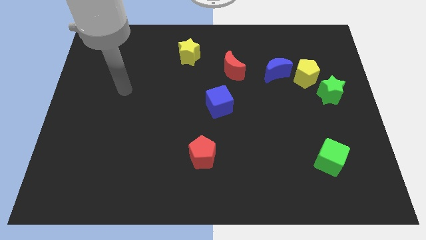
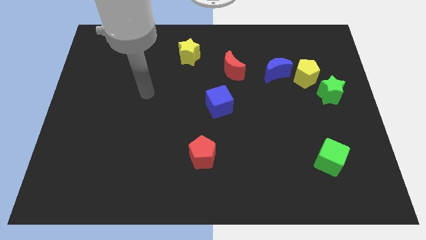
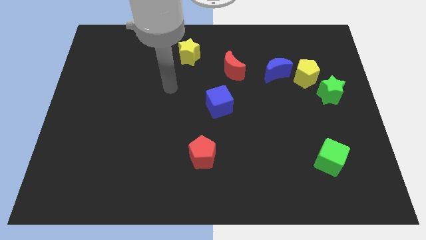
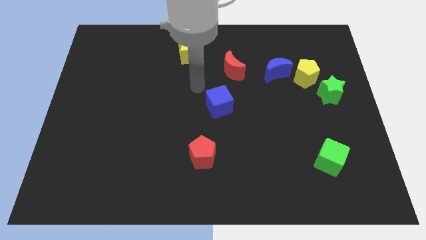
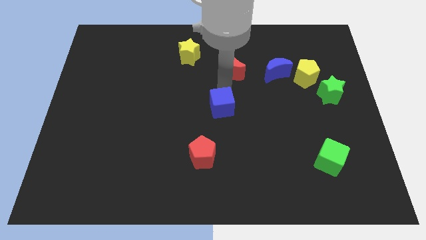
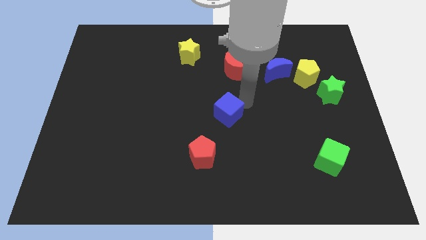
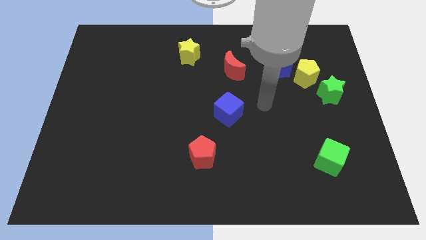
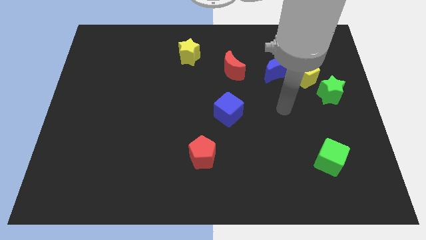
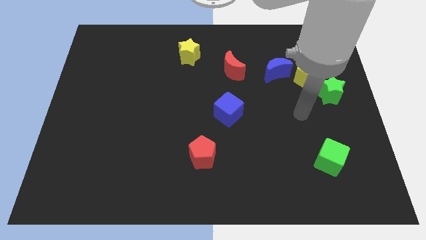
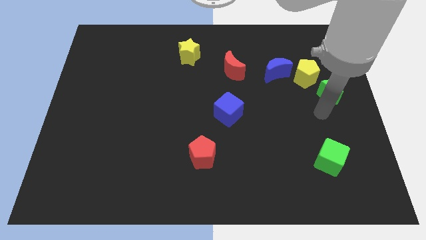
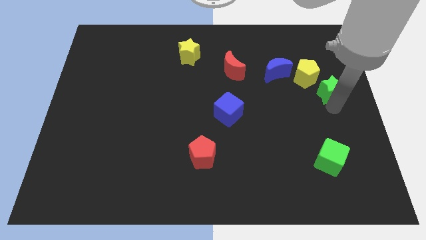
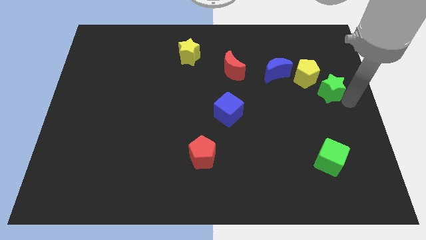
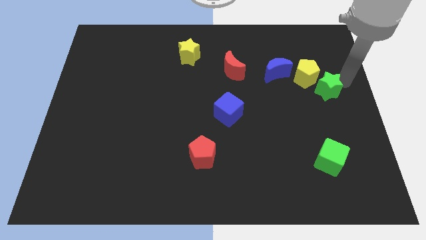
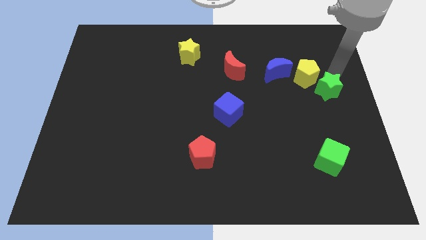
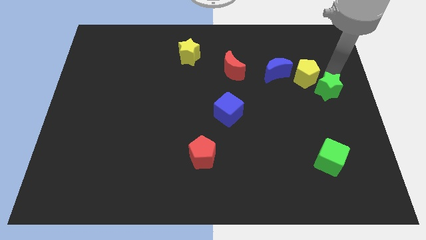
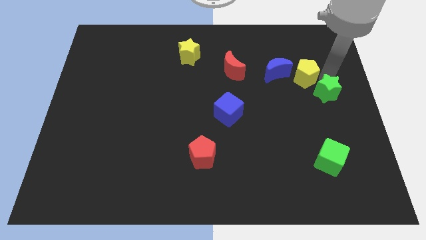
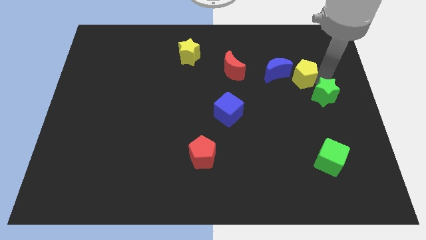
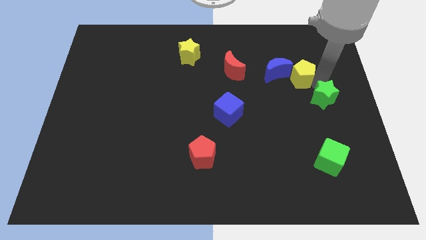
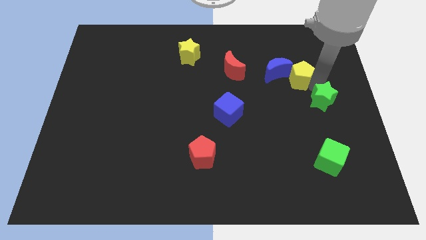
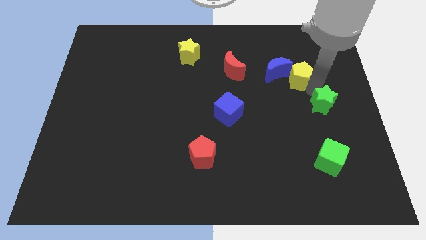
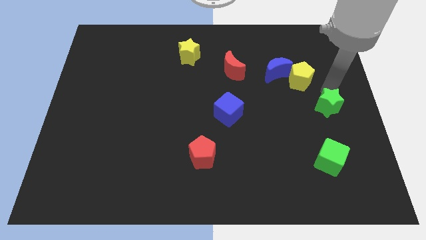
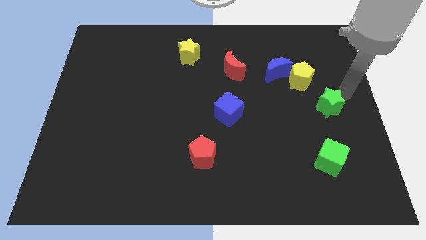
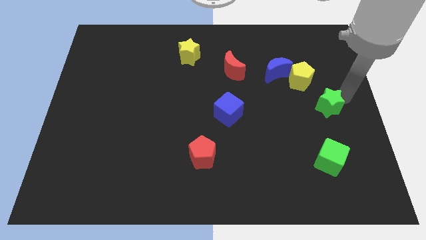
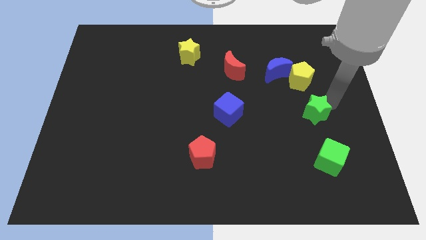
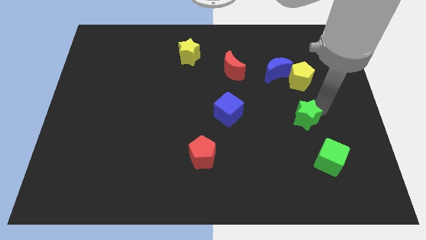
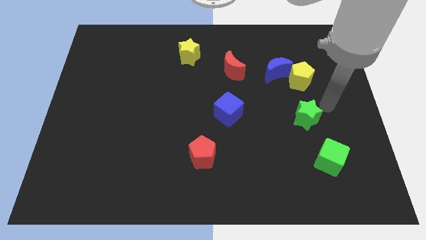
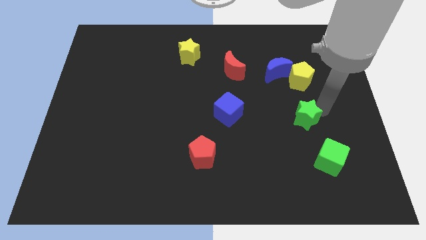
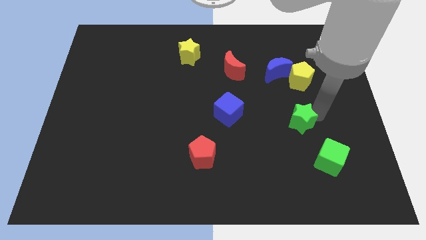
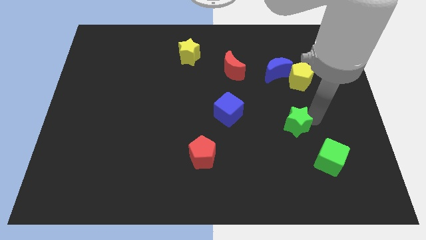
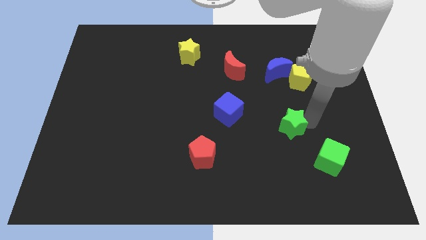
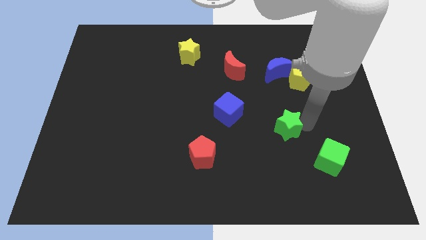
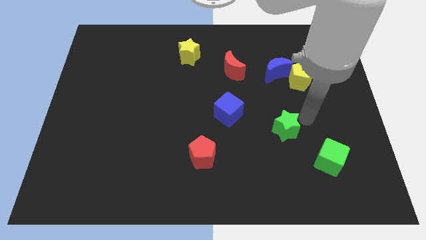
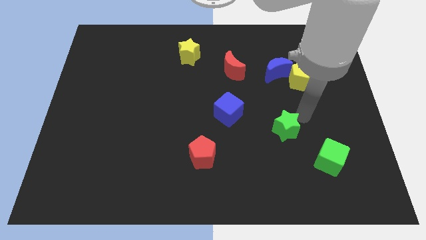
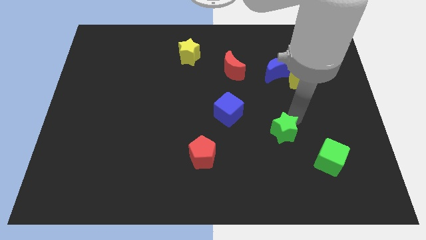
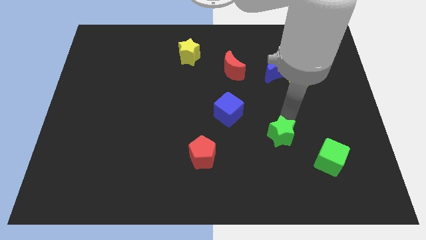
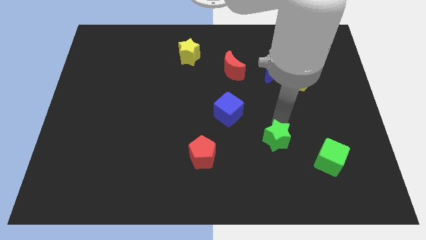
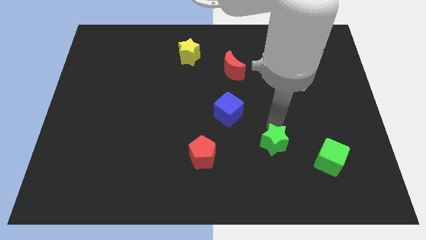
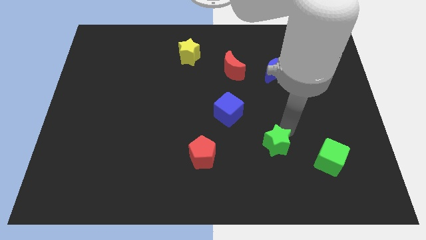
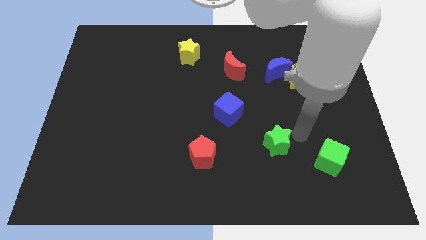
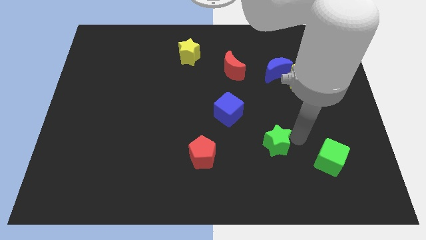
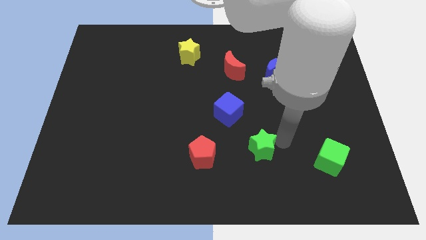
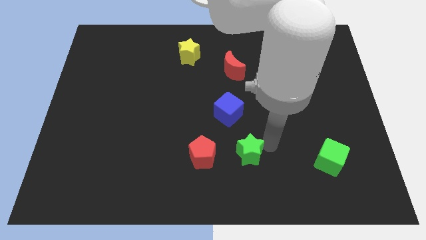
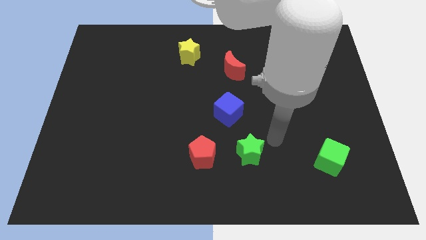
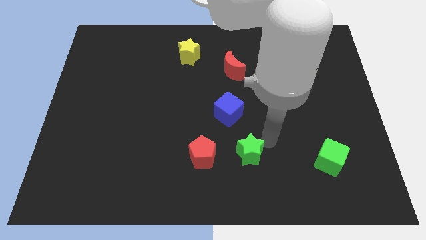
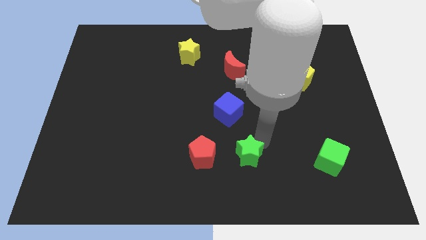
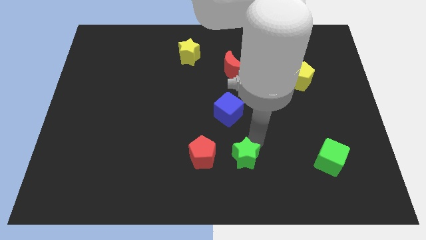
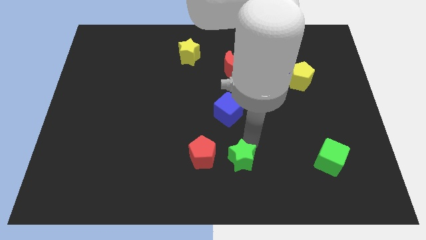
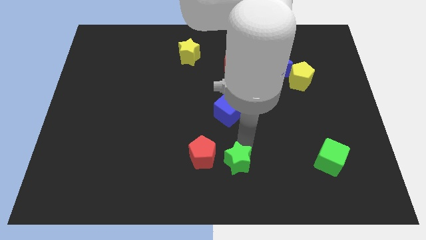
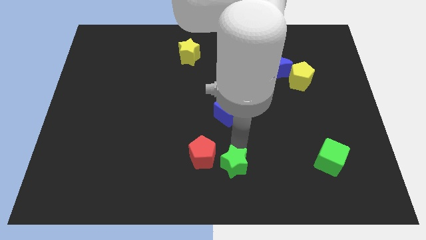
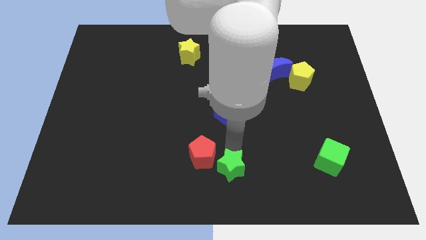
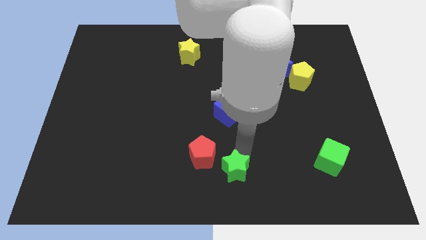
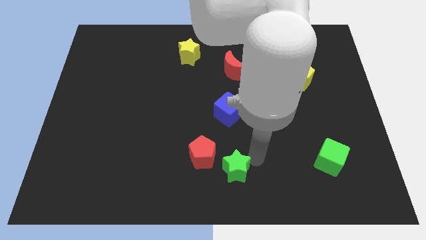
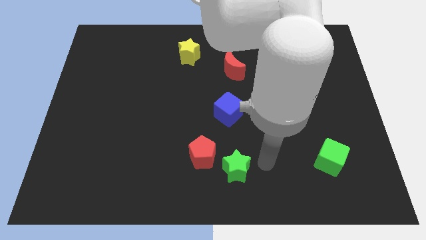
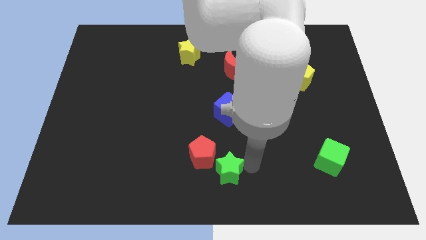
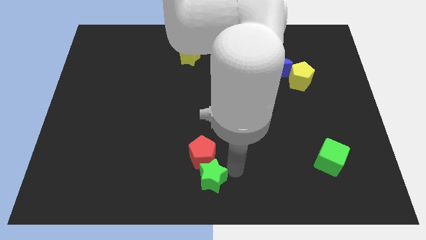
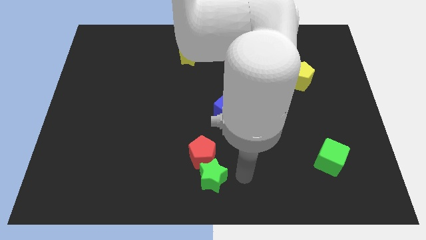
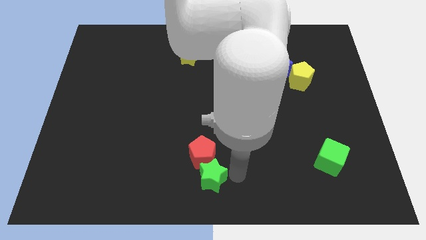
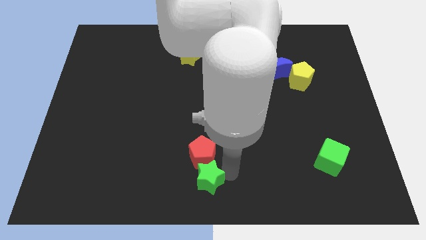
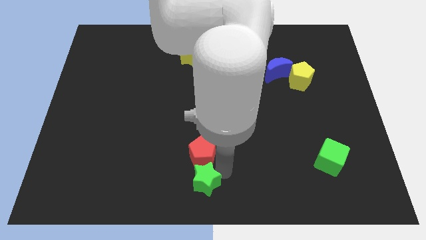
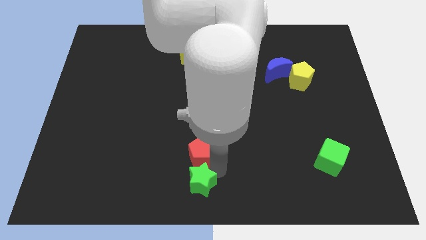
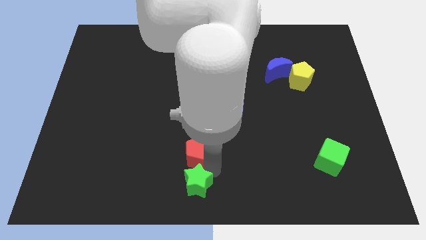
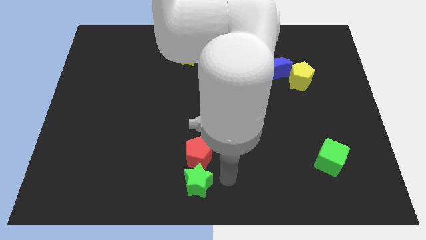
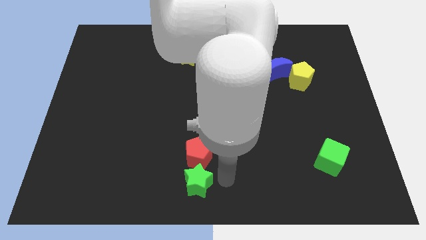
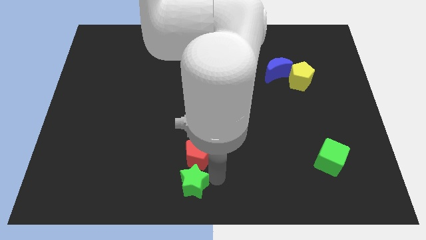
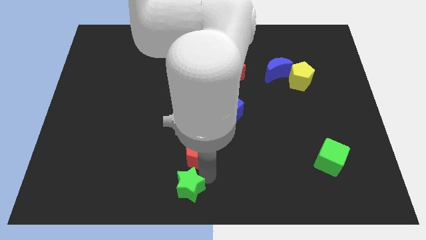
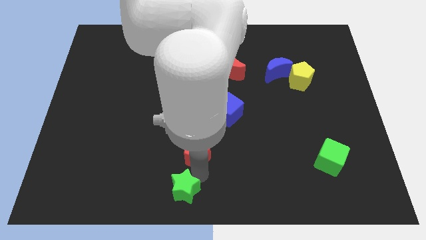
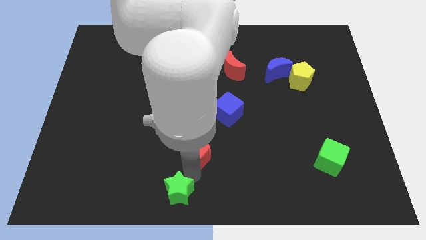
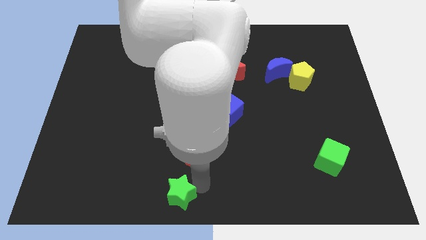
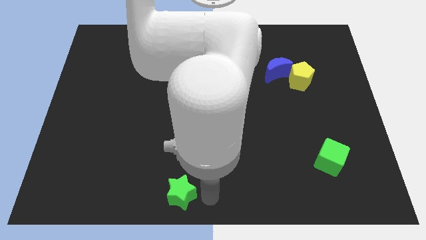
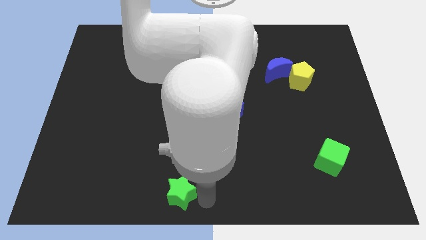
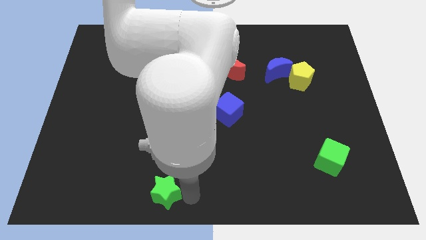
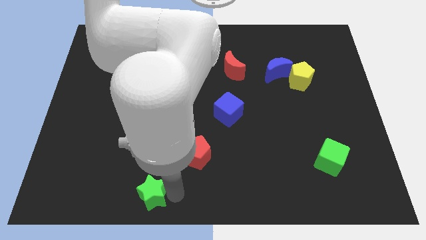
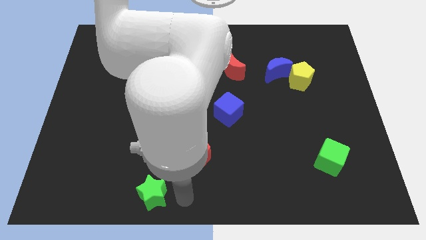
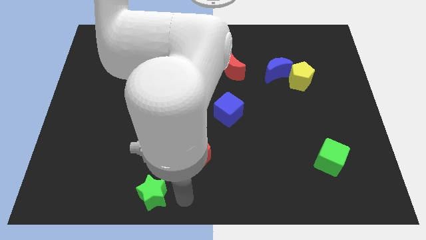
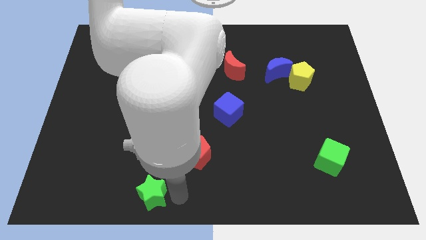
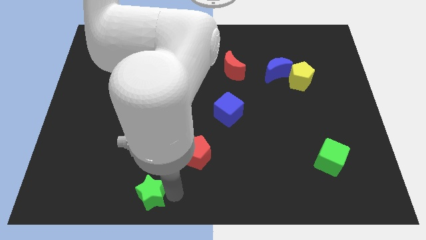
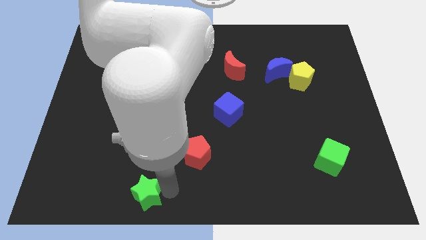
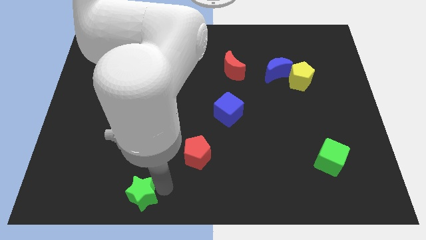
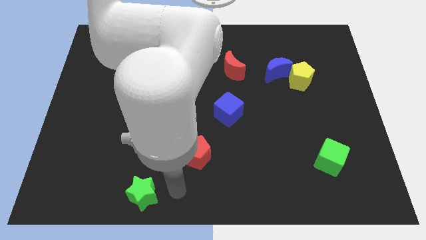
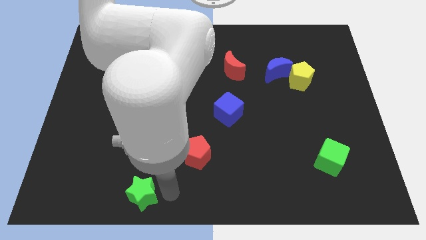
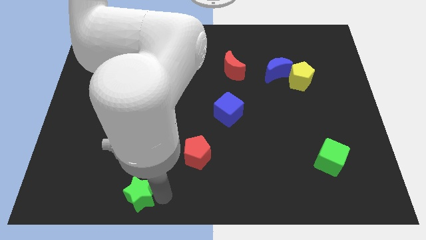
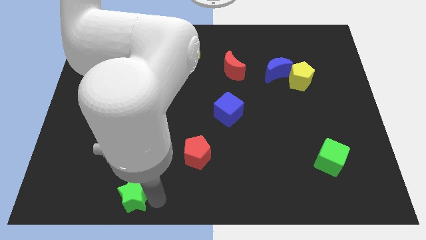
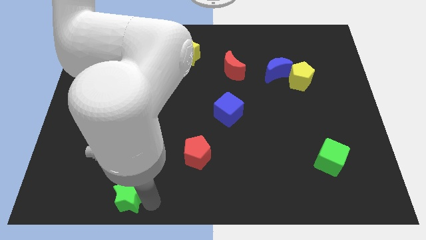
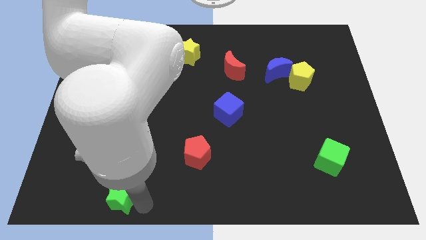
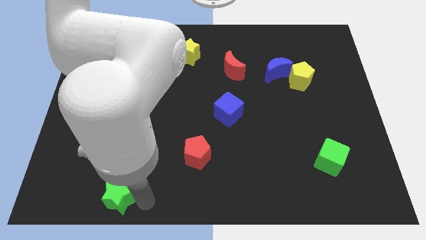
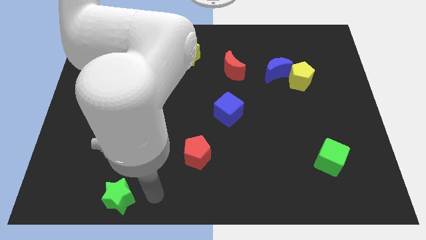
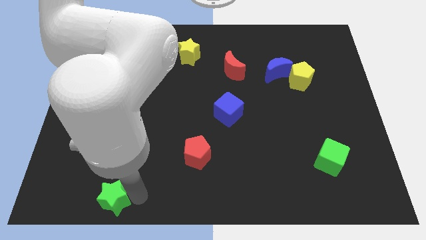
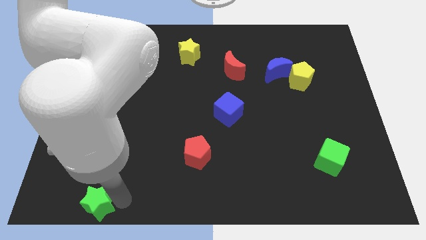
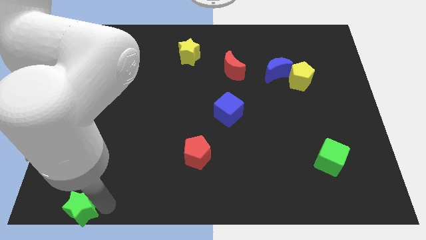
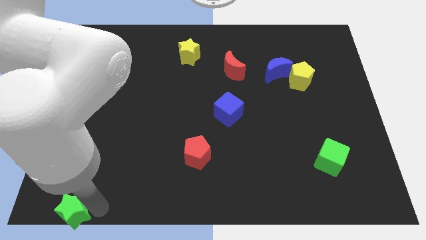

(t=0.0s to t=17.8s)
push the green star to the bottom left corner
